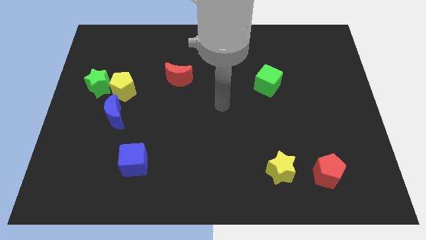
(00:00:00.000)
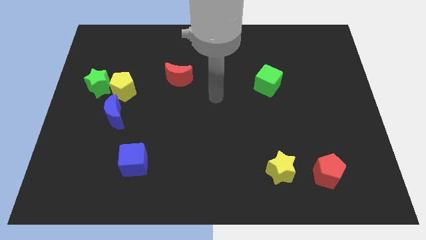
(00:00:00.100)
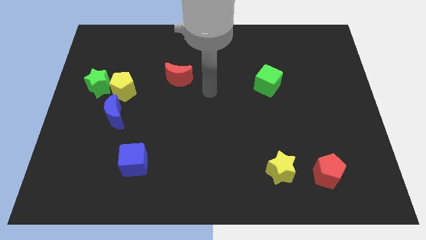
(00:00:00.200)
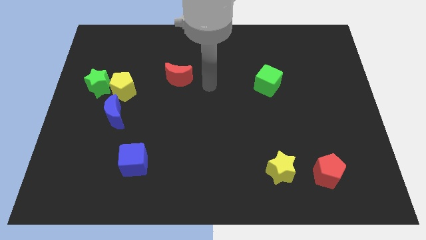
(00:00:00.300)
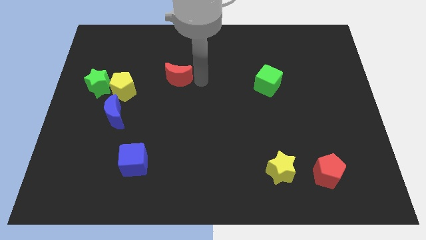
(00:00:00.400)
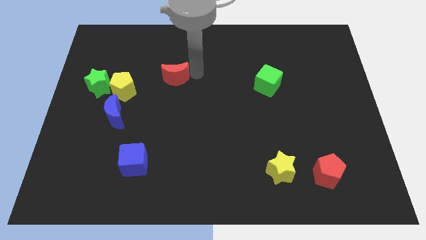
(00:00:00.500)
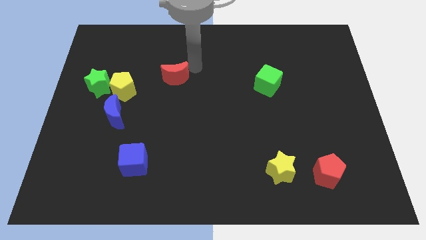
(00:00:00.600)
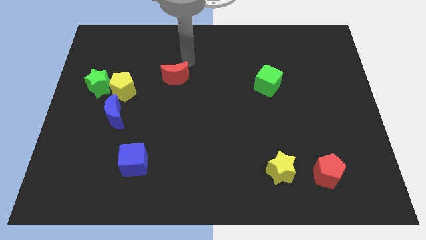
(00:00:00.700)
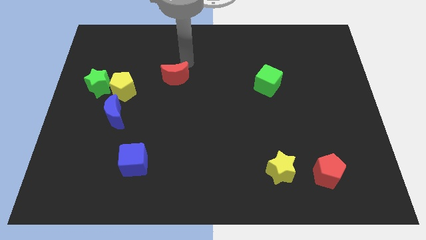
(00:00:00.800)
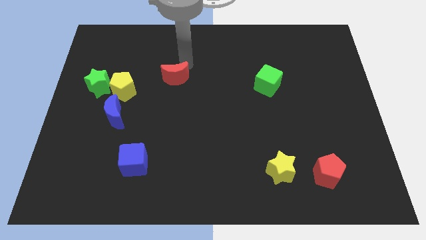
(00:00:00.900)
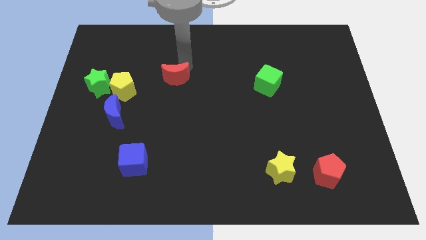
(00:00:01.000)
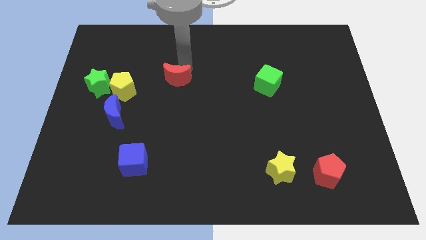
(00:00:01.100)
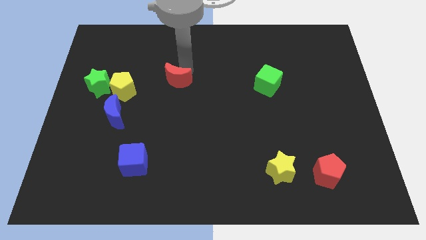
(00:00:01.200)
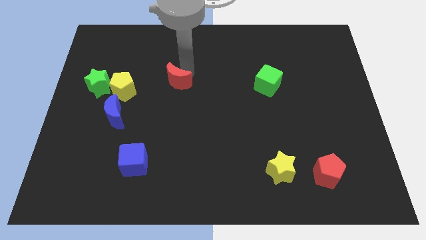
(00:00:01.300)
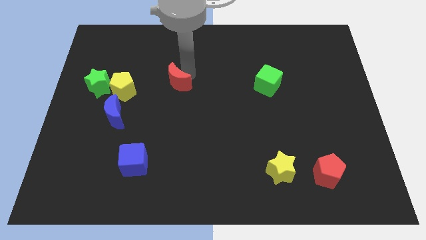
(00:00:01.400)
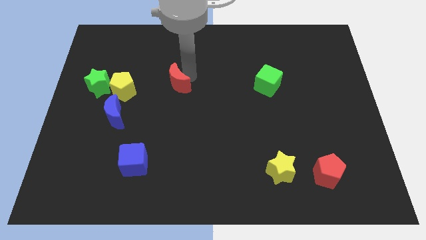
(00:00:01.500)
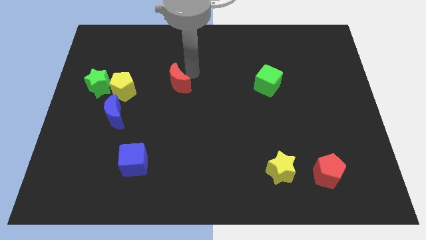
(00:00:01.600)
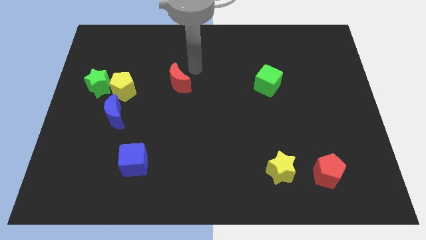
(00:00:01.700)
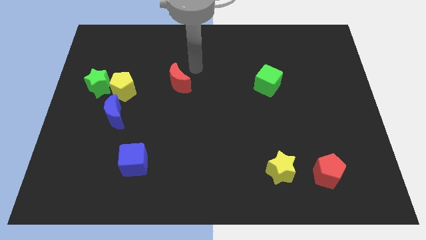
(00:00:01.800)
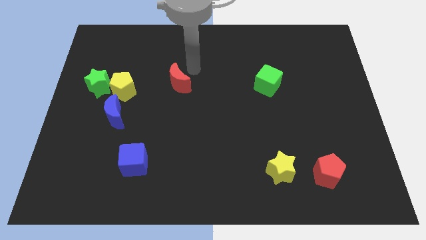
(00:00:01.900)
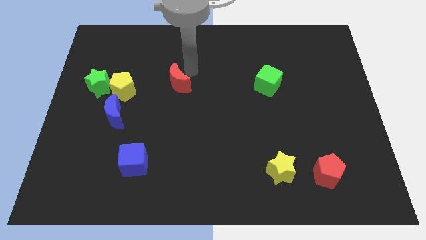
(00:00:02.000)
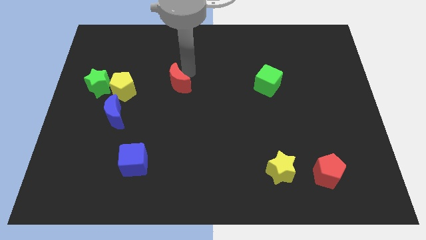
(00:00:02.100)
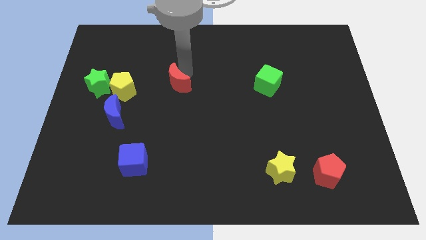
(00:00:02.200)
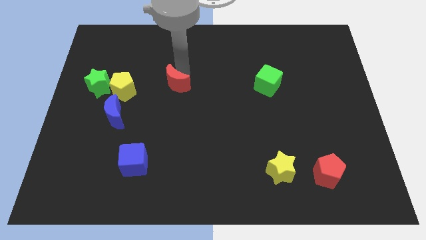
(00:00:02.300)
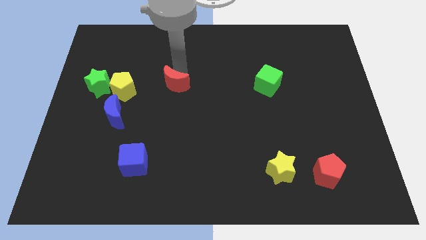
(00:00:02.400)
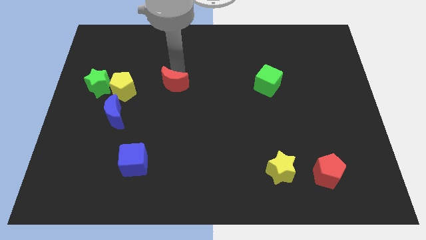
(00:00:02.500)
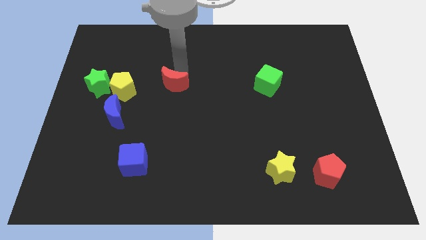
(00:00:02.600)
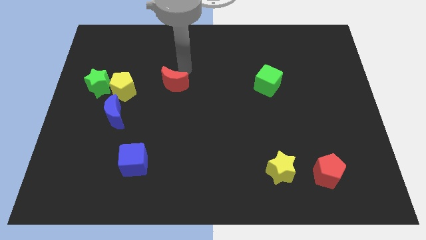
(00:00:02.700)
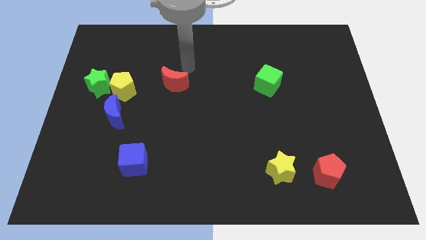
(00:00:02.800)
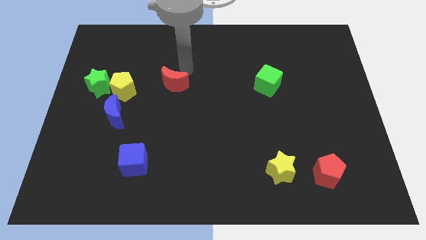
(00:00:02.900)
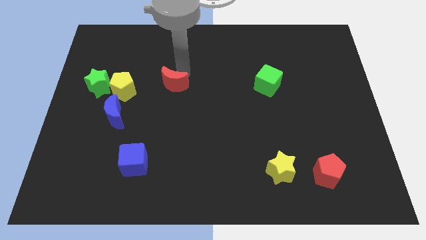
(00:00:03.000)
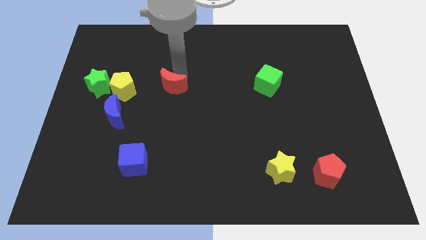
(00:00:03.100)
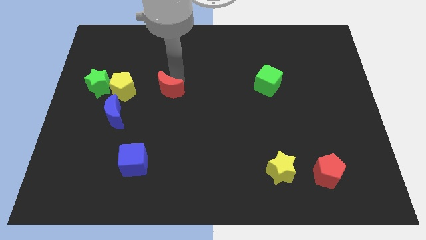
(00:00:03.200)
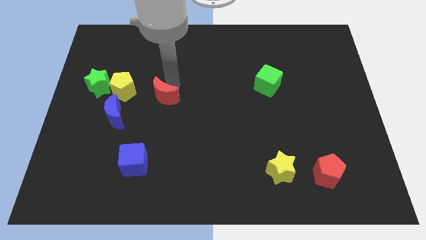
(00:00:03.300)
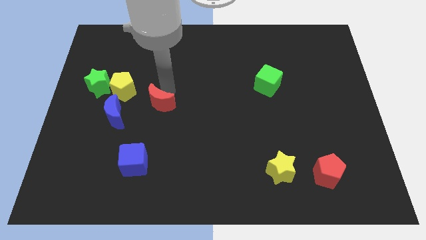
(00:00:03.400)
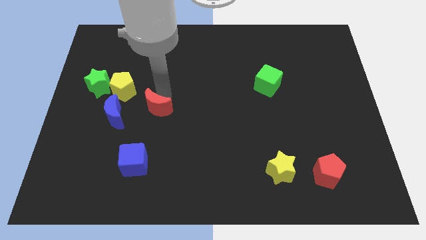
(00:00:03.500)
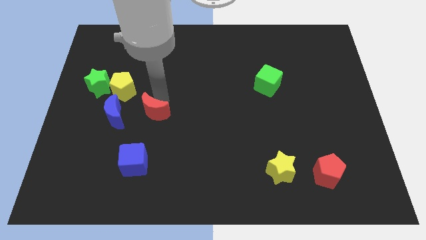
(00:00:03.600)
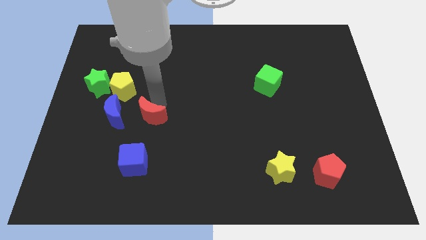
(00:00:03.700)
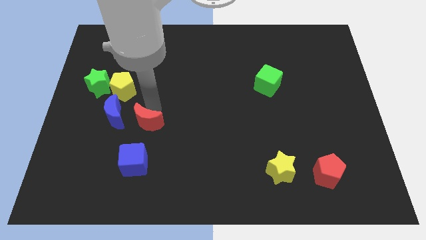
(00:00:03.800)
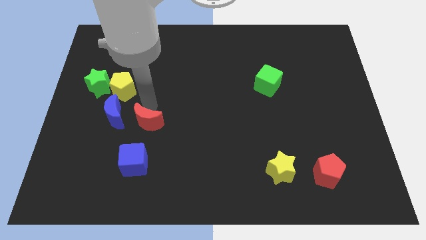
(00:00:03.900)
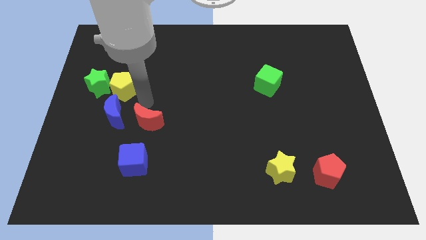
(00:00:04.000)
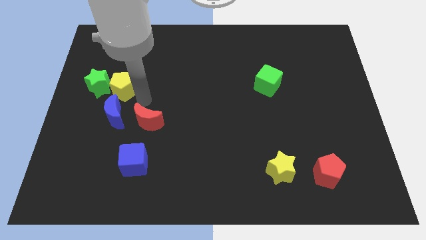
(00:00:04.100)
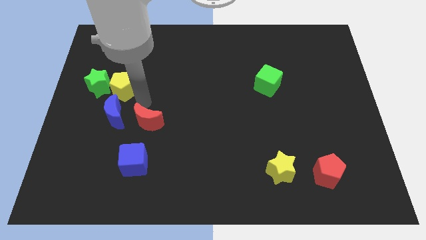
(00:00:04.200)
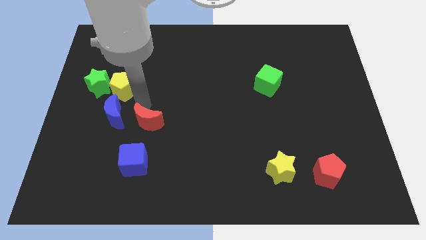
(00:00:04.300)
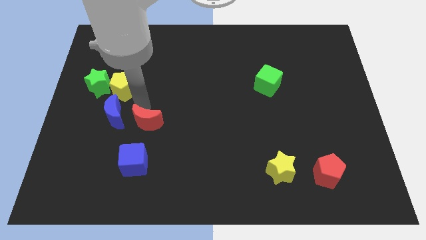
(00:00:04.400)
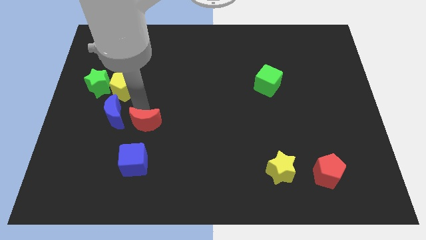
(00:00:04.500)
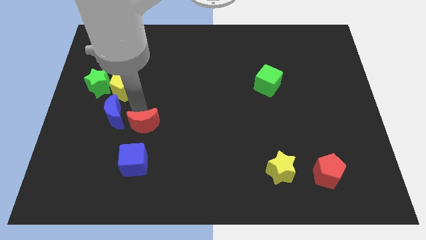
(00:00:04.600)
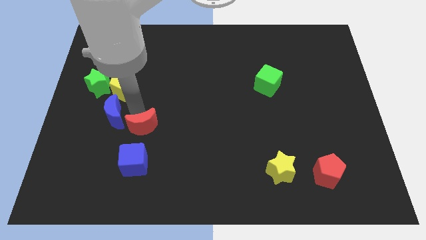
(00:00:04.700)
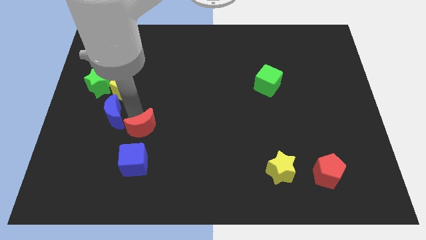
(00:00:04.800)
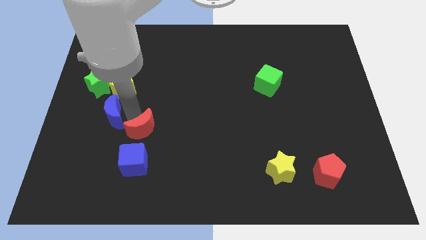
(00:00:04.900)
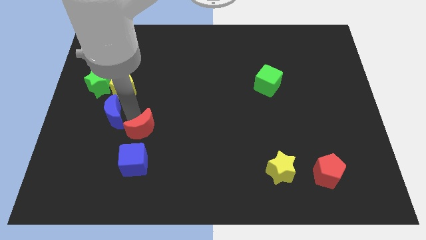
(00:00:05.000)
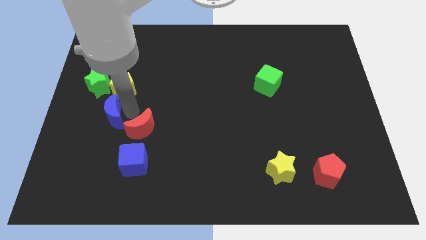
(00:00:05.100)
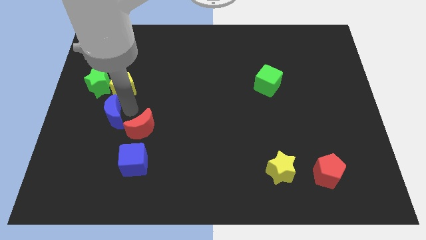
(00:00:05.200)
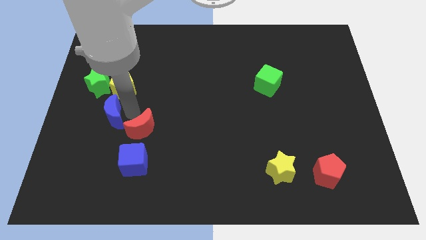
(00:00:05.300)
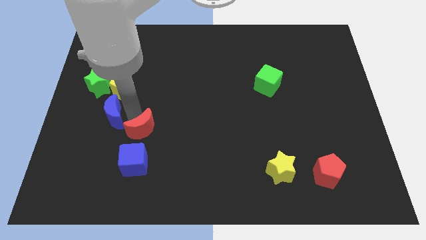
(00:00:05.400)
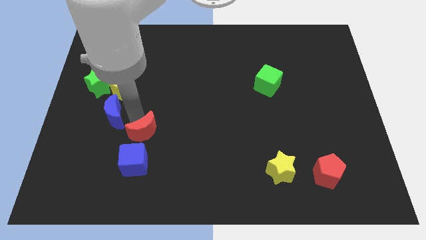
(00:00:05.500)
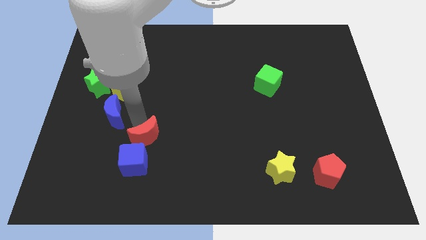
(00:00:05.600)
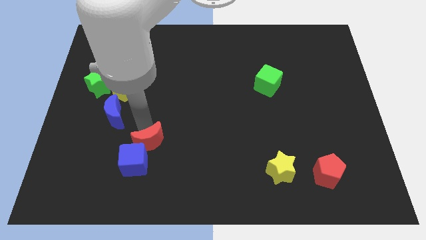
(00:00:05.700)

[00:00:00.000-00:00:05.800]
push the red moon close to the blue cube
